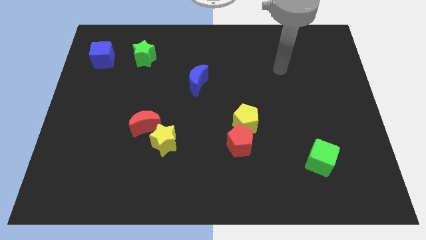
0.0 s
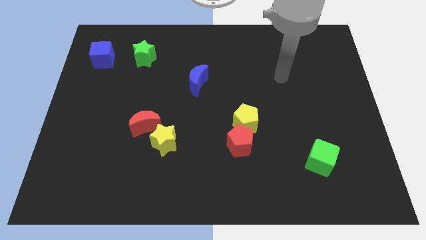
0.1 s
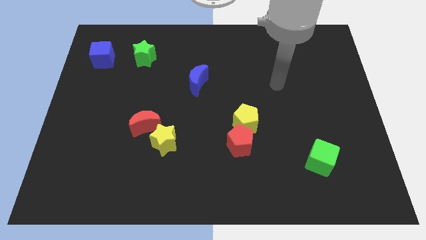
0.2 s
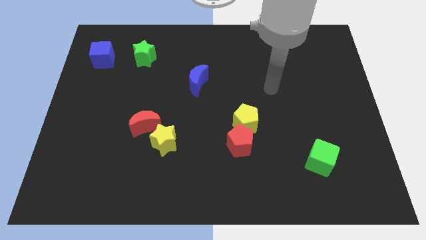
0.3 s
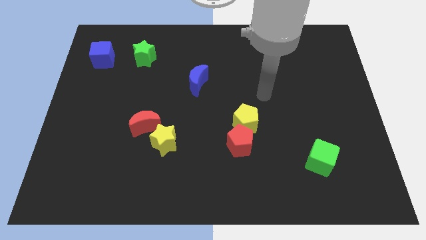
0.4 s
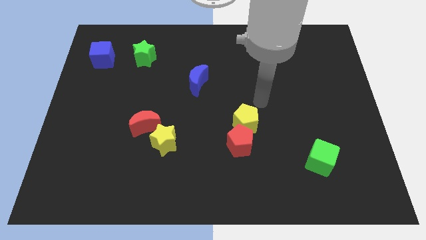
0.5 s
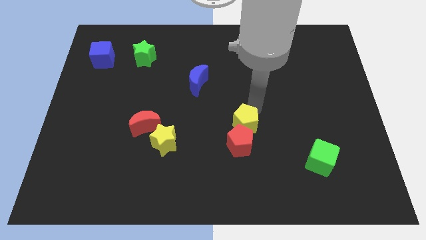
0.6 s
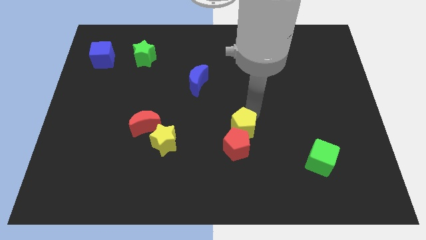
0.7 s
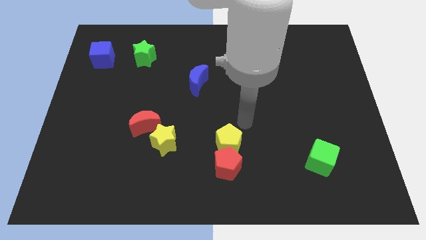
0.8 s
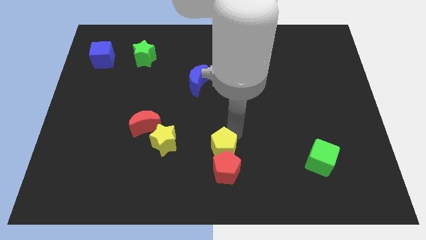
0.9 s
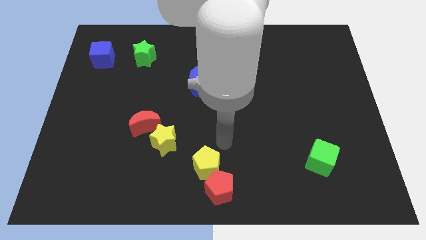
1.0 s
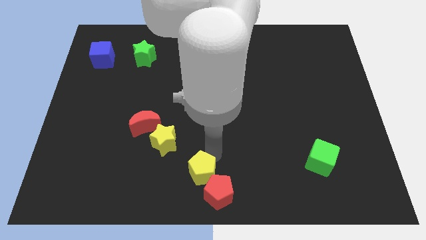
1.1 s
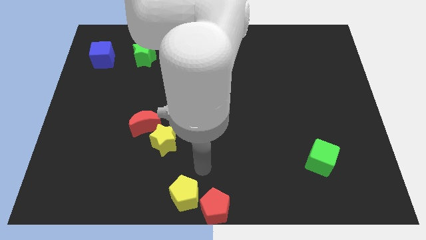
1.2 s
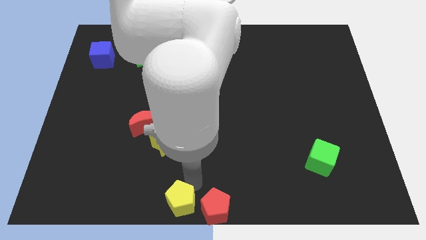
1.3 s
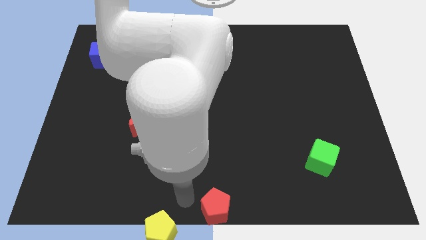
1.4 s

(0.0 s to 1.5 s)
move the red pentagon away from the yellow pentagon

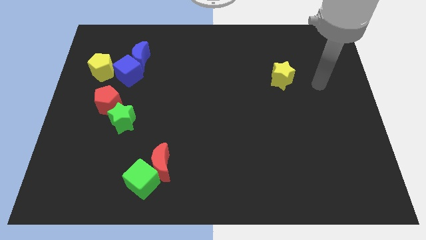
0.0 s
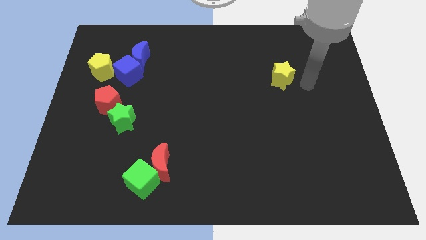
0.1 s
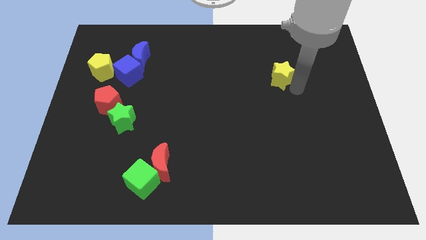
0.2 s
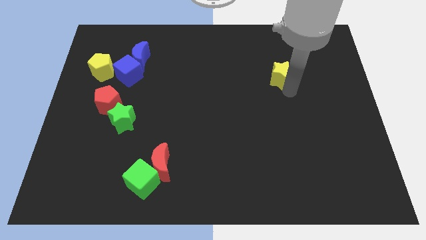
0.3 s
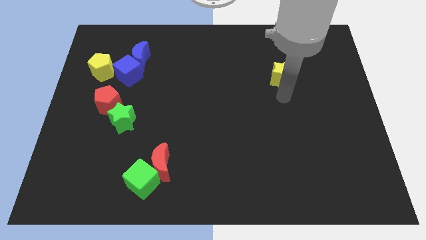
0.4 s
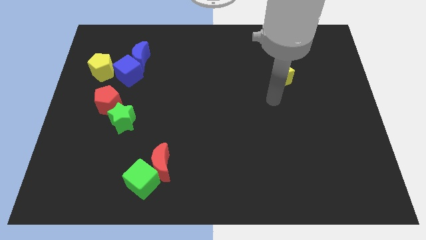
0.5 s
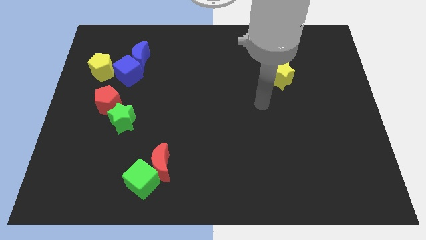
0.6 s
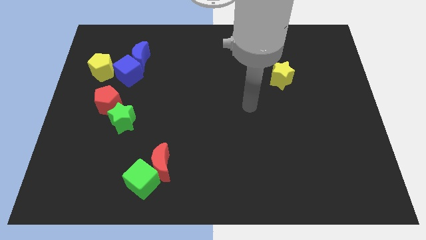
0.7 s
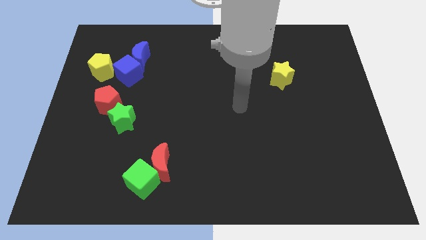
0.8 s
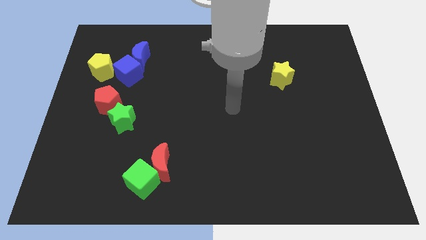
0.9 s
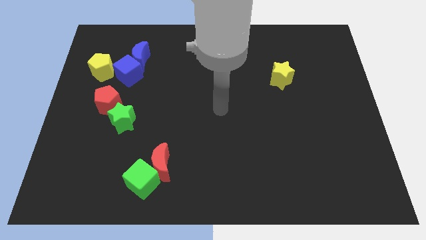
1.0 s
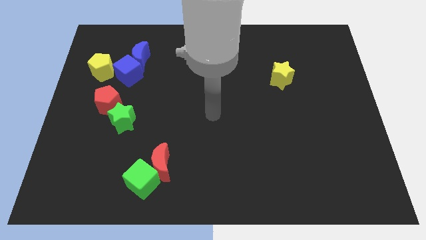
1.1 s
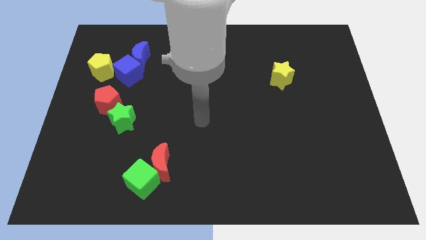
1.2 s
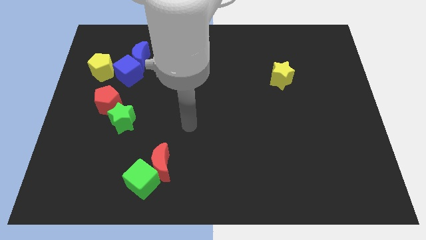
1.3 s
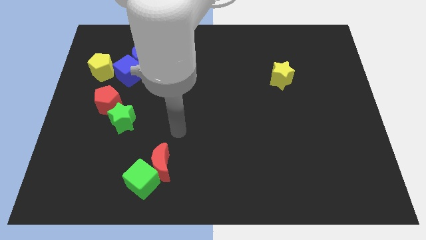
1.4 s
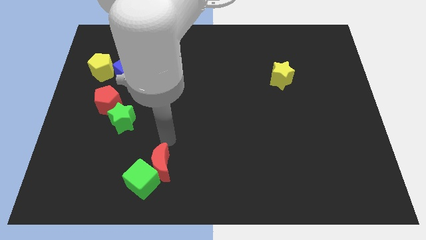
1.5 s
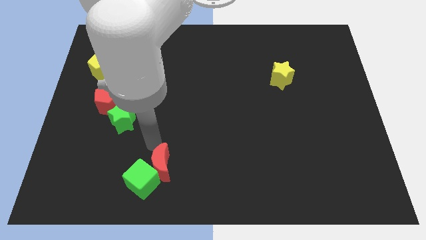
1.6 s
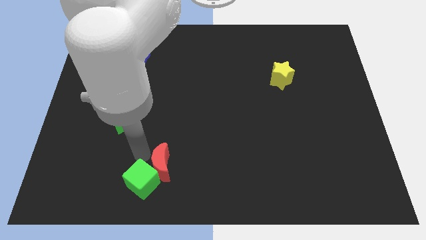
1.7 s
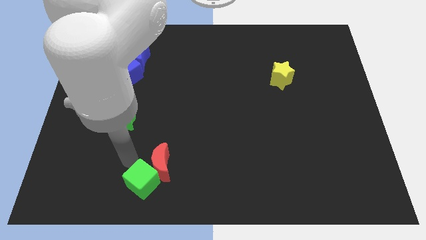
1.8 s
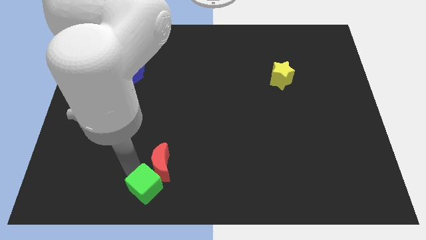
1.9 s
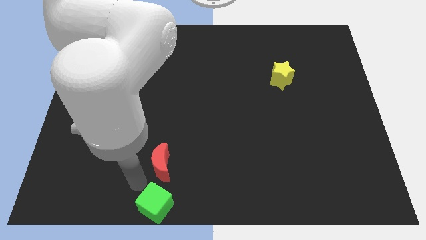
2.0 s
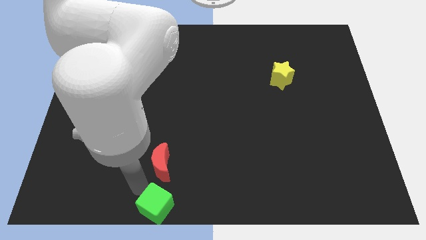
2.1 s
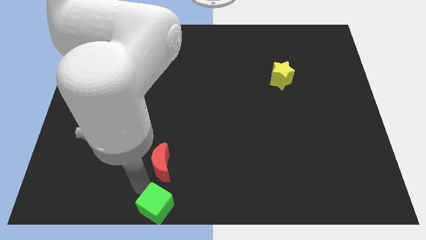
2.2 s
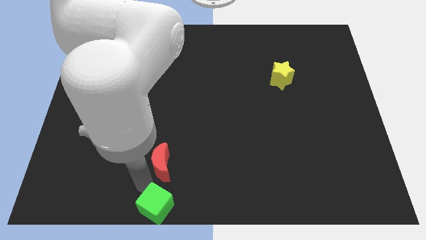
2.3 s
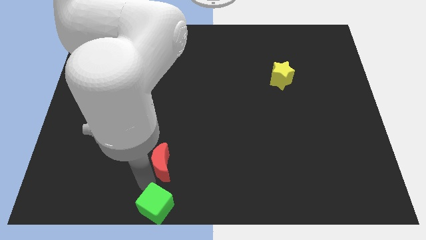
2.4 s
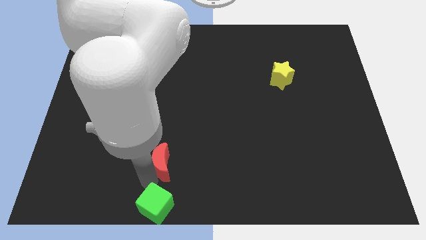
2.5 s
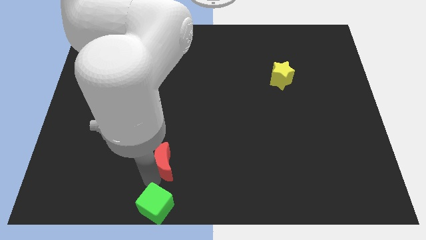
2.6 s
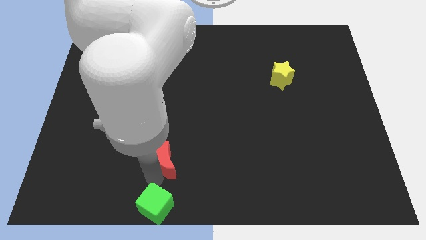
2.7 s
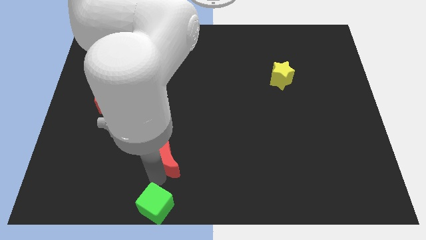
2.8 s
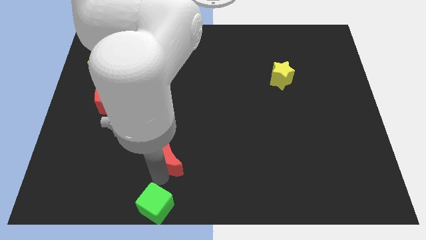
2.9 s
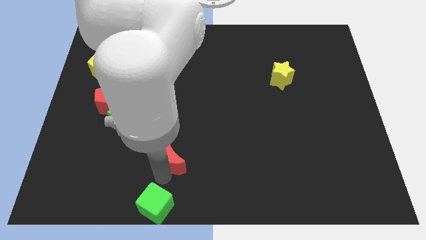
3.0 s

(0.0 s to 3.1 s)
move the red moon away from the green cube

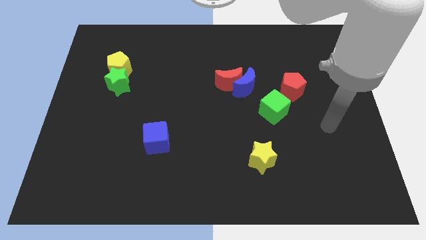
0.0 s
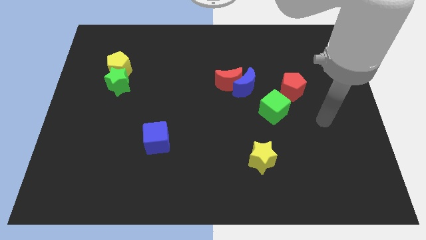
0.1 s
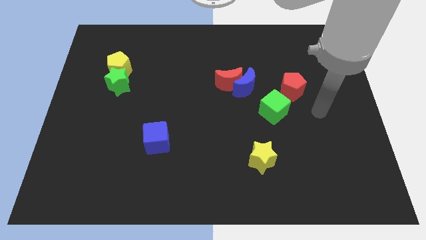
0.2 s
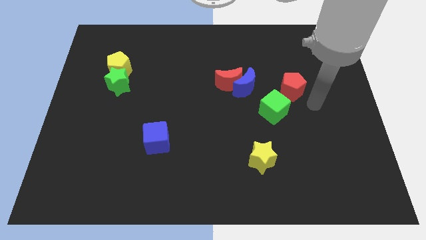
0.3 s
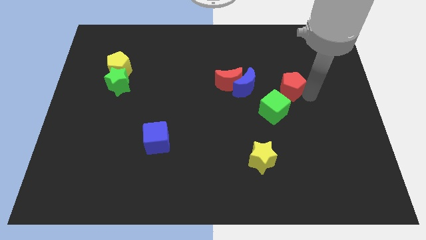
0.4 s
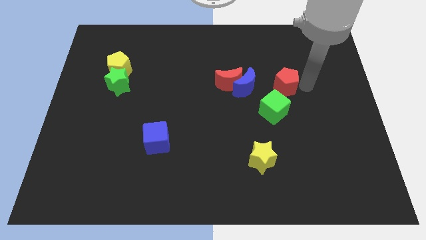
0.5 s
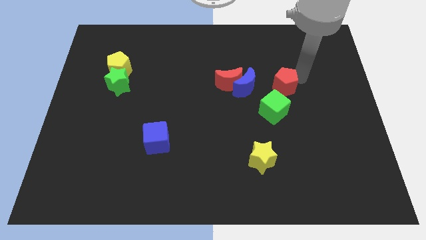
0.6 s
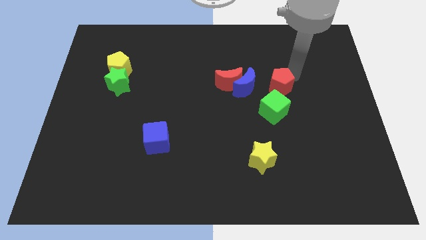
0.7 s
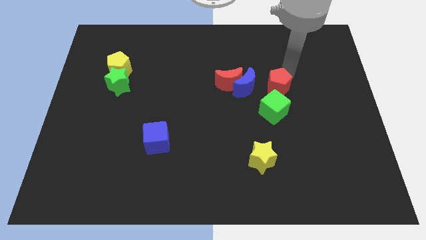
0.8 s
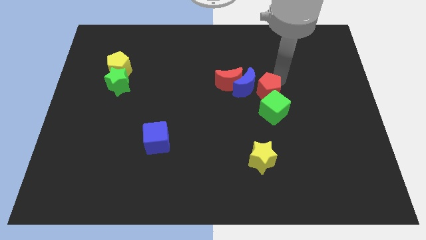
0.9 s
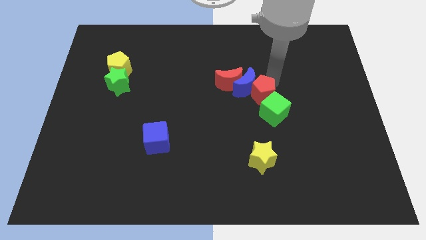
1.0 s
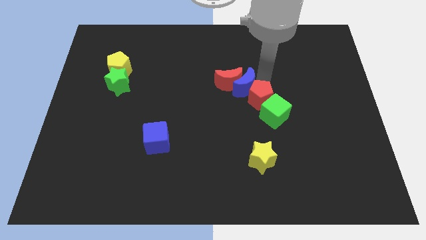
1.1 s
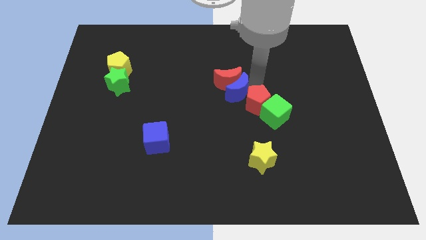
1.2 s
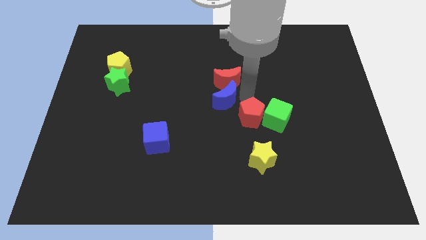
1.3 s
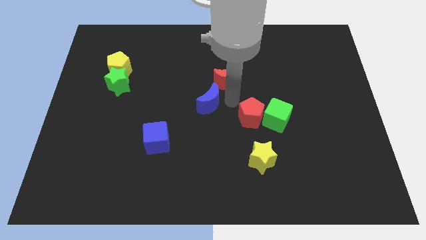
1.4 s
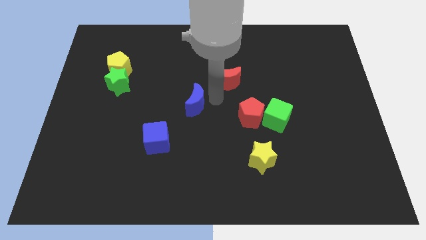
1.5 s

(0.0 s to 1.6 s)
pull the red moon apart from the blue moon

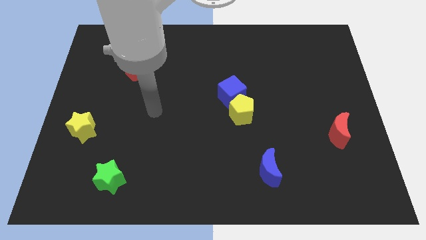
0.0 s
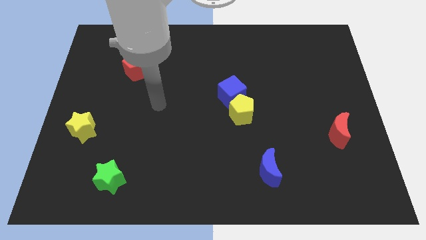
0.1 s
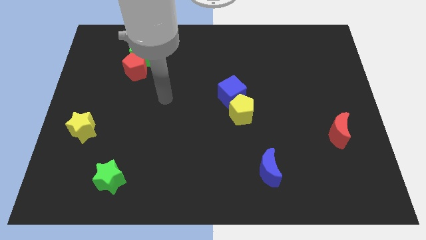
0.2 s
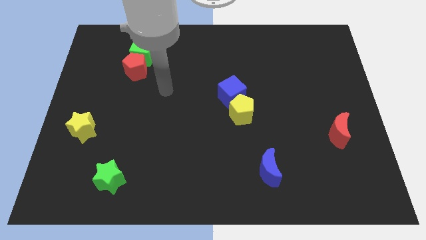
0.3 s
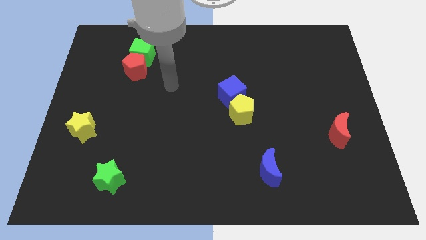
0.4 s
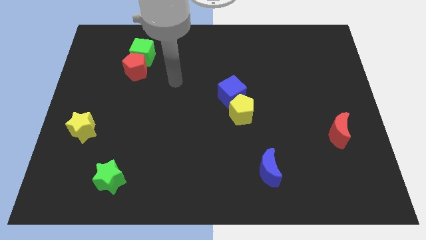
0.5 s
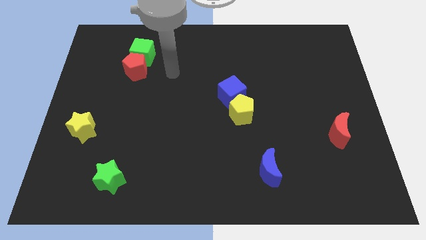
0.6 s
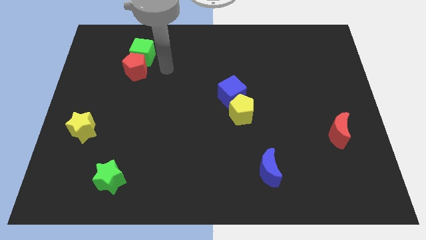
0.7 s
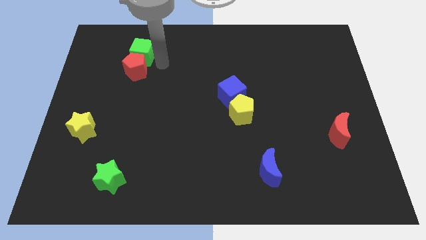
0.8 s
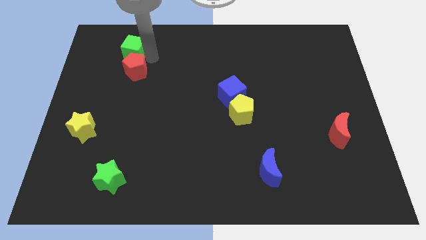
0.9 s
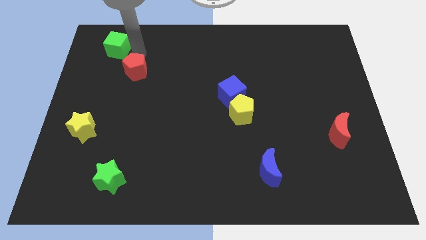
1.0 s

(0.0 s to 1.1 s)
pull the red pentagon apart from the green cube

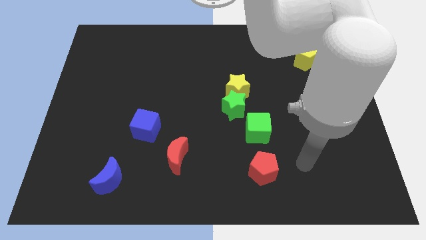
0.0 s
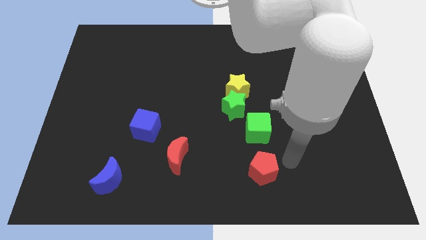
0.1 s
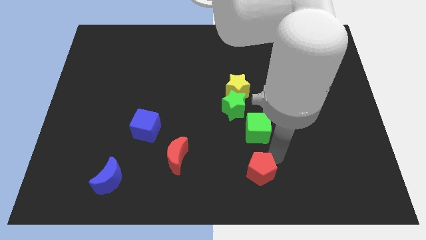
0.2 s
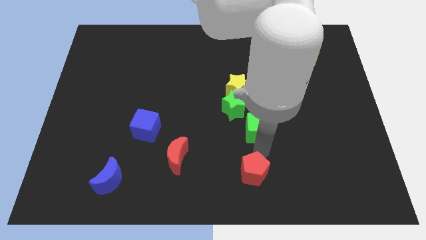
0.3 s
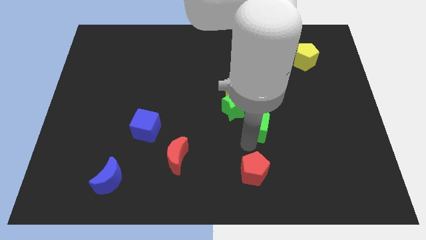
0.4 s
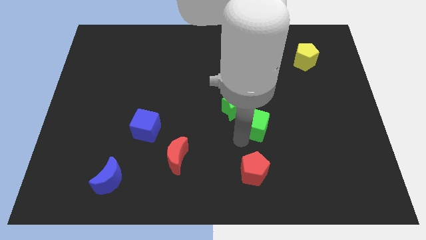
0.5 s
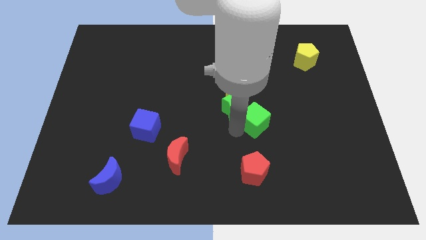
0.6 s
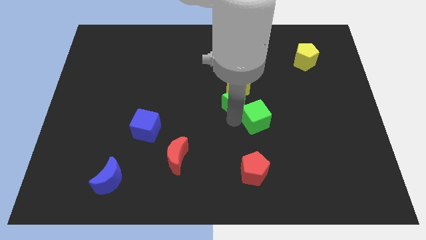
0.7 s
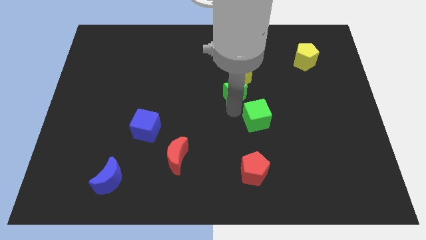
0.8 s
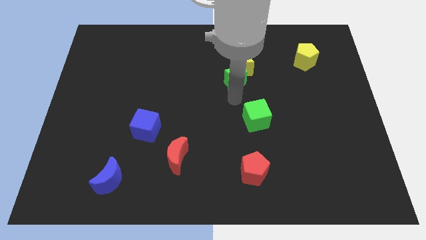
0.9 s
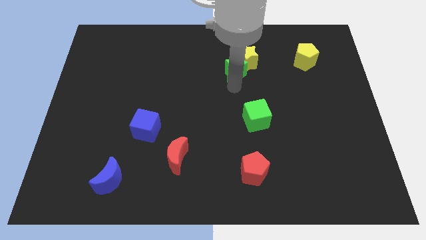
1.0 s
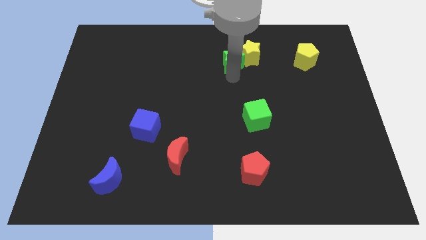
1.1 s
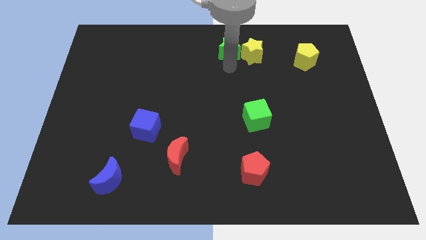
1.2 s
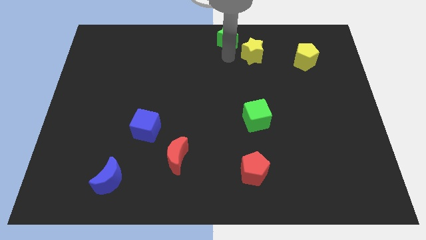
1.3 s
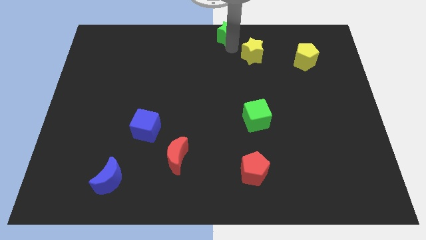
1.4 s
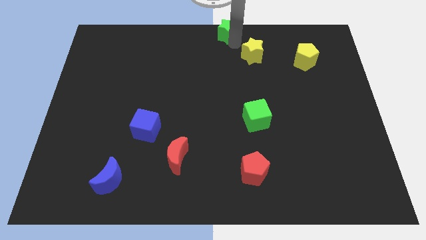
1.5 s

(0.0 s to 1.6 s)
separate the yellow star from the green star

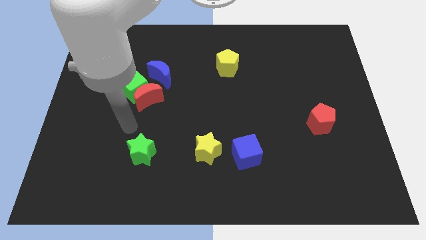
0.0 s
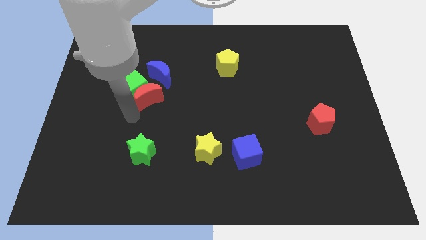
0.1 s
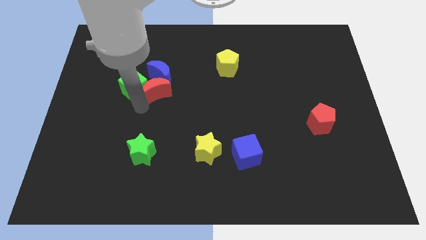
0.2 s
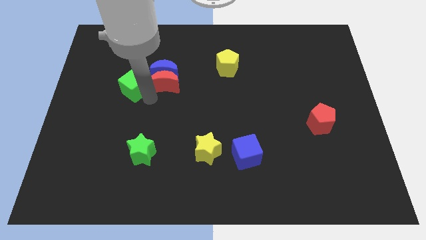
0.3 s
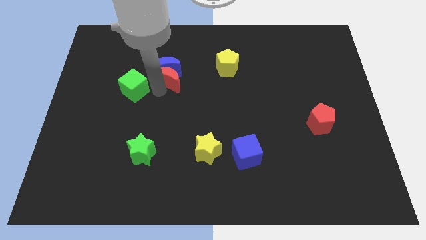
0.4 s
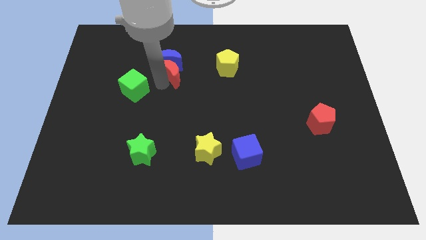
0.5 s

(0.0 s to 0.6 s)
separate the green cube from the red moon and blue moon
